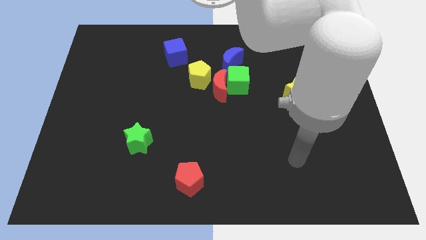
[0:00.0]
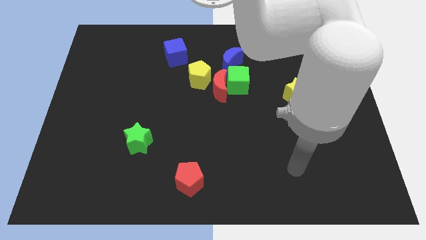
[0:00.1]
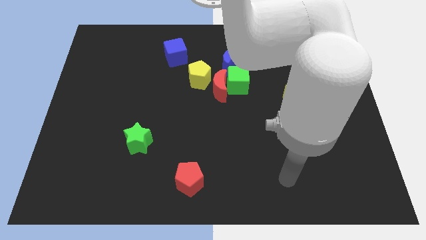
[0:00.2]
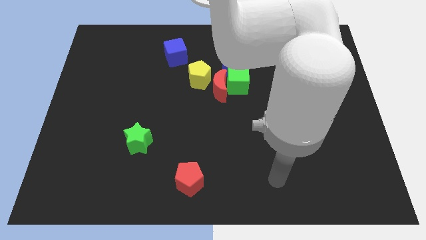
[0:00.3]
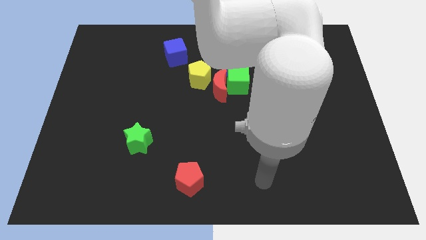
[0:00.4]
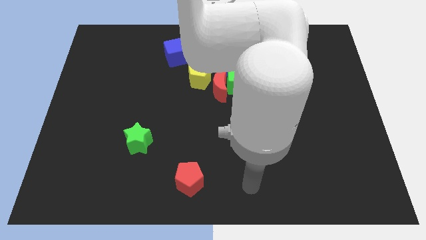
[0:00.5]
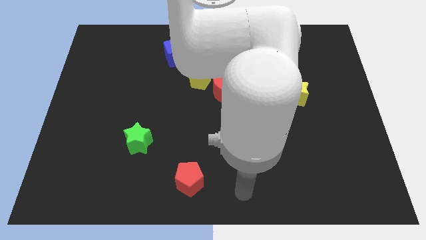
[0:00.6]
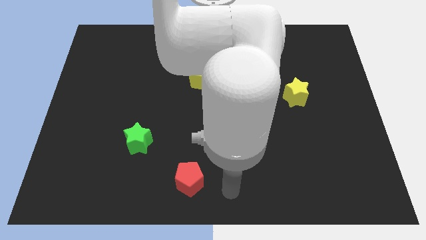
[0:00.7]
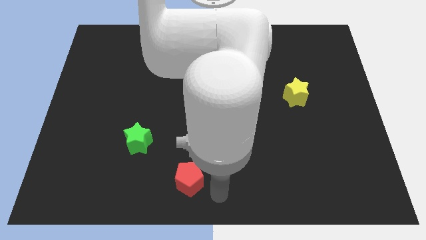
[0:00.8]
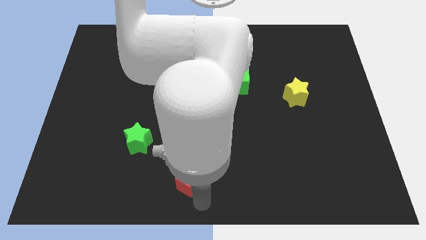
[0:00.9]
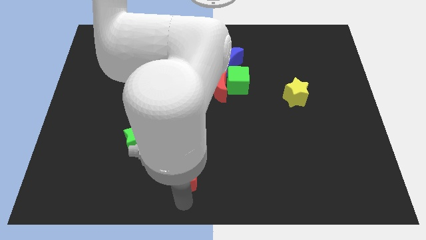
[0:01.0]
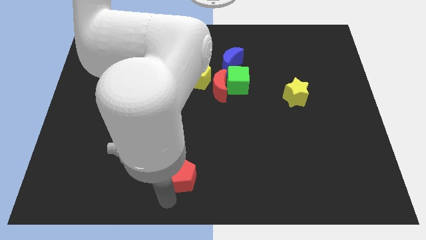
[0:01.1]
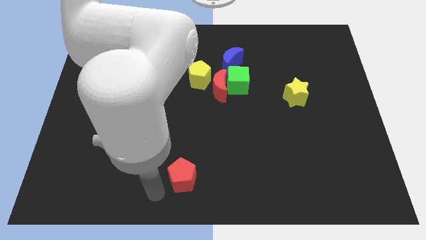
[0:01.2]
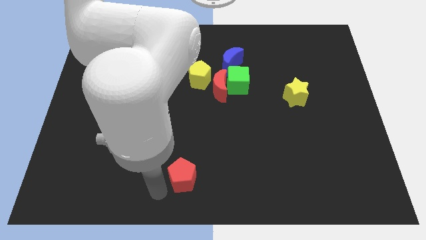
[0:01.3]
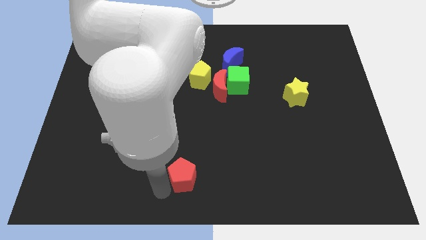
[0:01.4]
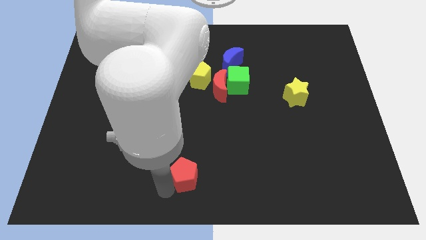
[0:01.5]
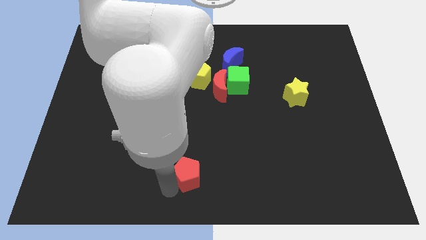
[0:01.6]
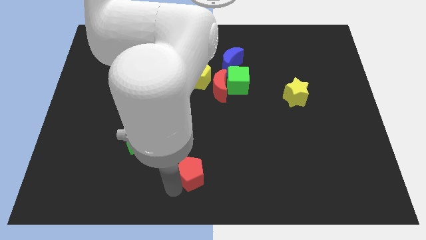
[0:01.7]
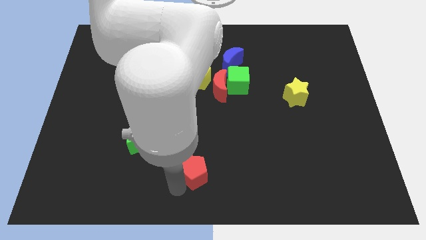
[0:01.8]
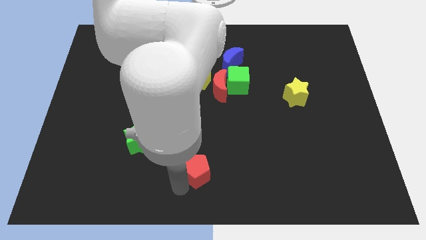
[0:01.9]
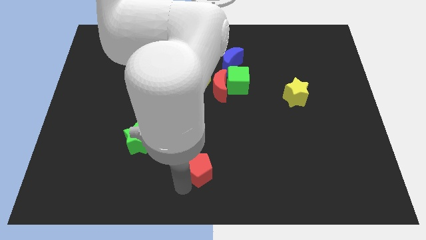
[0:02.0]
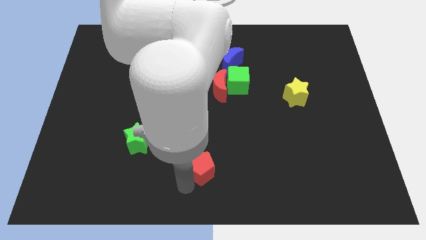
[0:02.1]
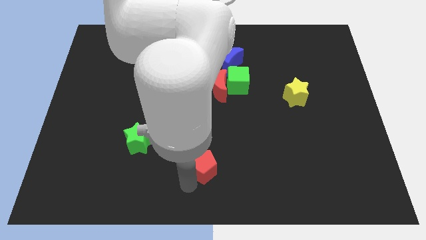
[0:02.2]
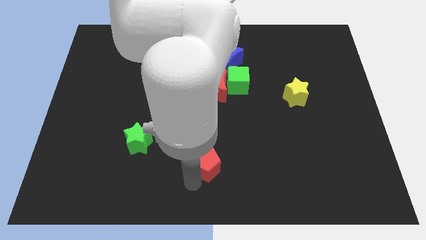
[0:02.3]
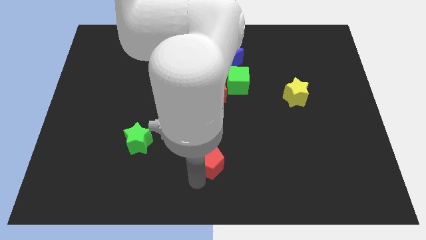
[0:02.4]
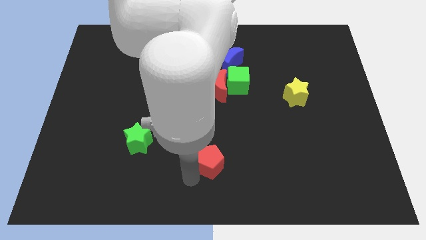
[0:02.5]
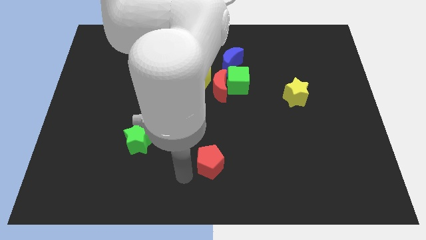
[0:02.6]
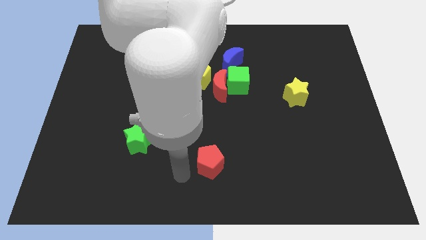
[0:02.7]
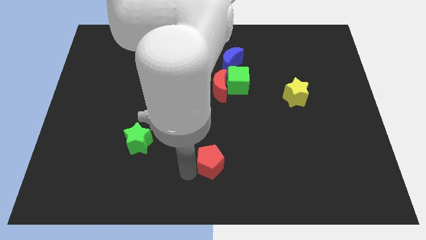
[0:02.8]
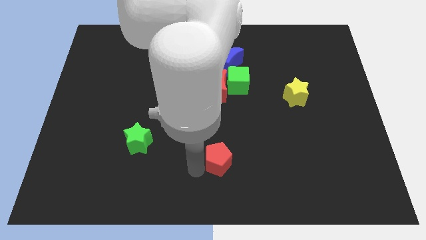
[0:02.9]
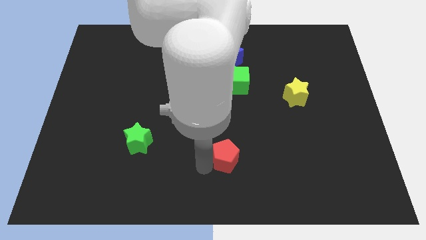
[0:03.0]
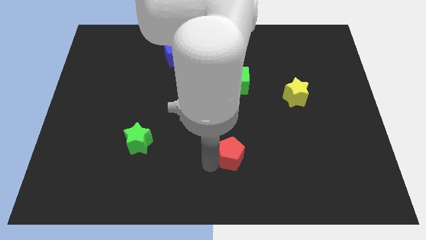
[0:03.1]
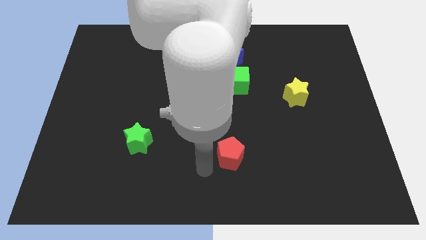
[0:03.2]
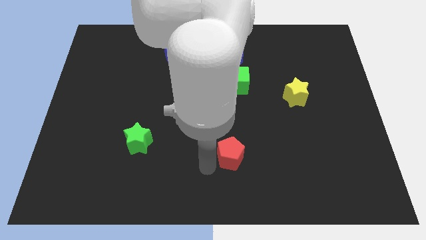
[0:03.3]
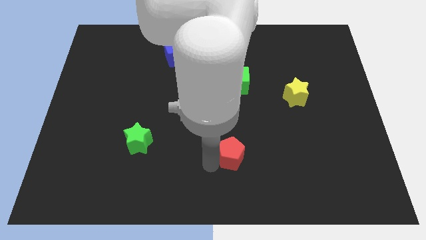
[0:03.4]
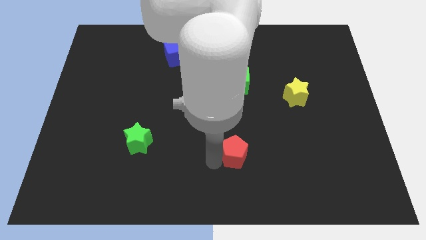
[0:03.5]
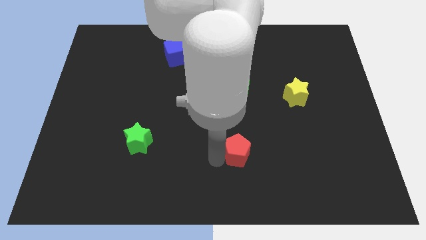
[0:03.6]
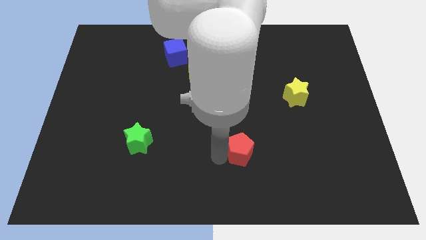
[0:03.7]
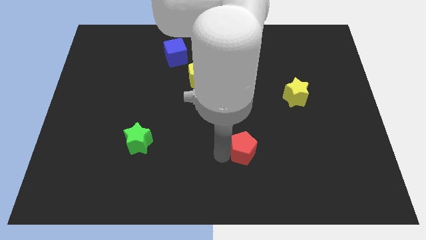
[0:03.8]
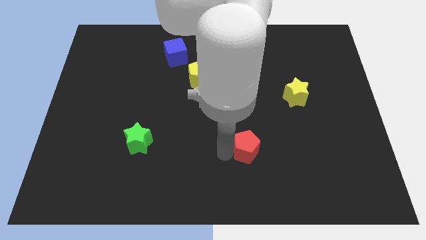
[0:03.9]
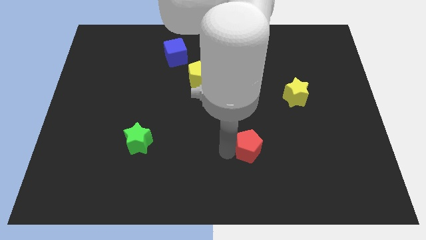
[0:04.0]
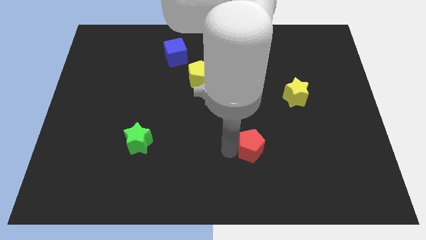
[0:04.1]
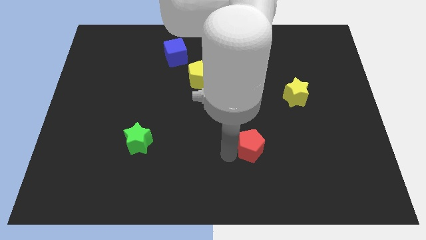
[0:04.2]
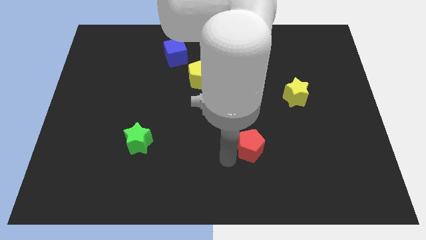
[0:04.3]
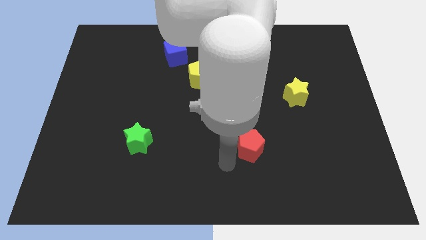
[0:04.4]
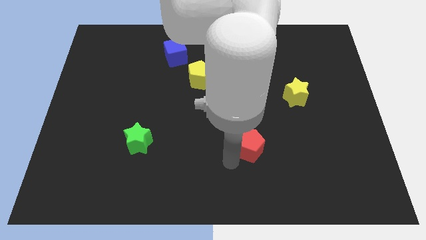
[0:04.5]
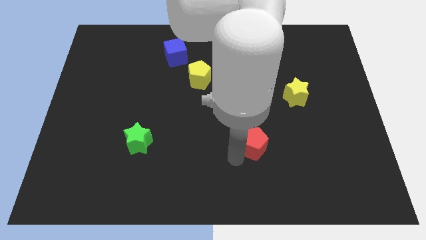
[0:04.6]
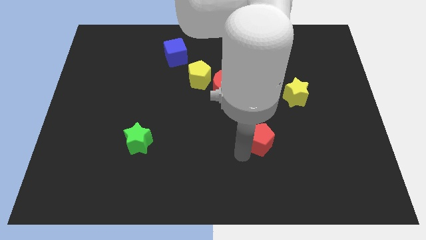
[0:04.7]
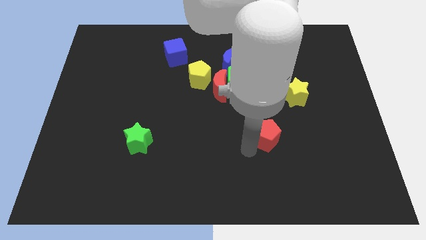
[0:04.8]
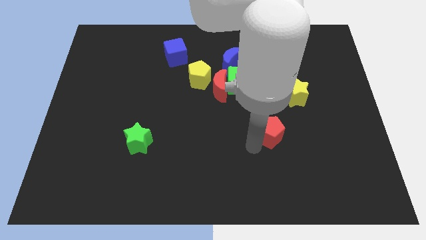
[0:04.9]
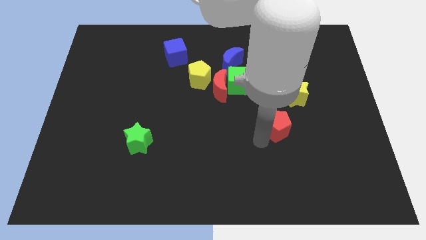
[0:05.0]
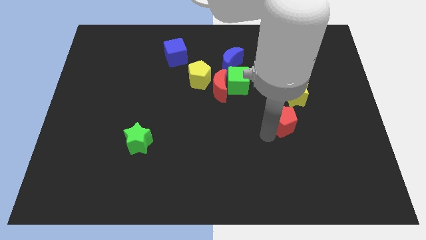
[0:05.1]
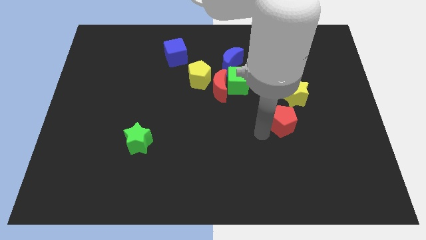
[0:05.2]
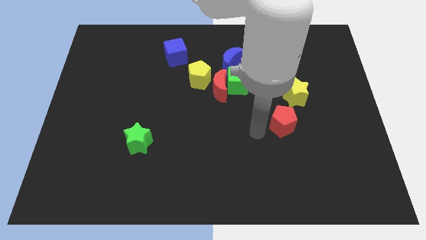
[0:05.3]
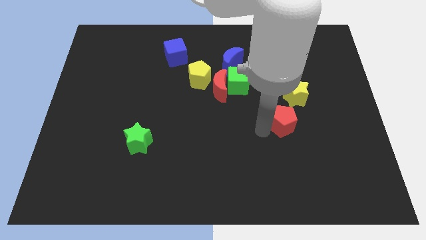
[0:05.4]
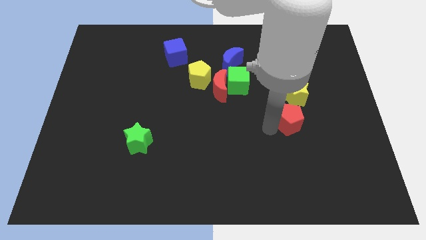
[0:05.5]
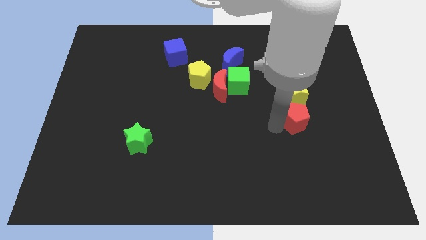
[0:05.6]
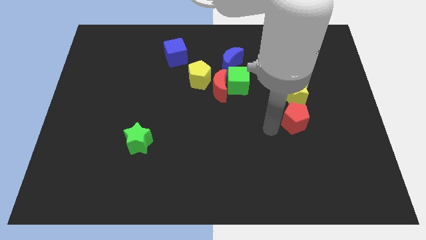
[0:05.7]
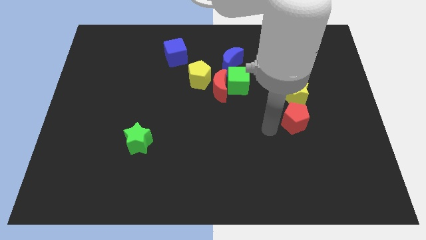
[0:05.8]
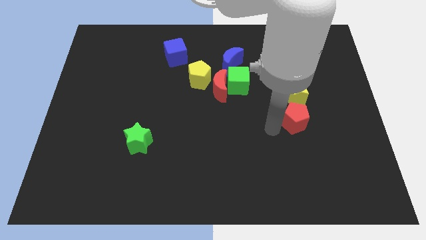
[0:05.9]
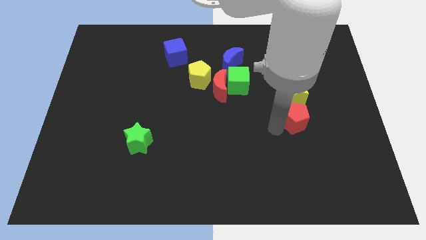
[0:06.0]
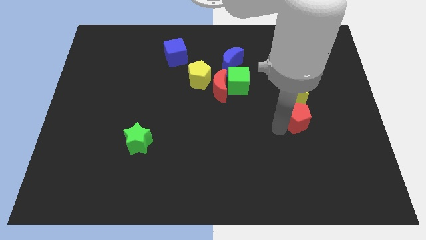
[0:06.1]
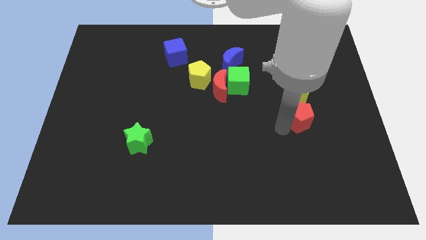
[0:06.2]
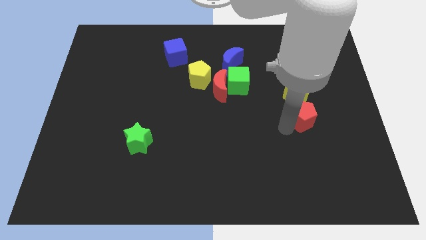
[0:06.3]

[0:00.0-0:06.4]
slide the red pentagon to the bottom right side of the yellow star
